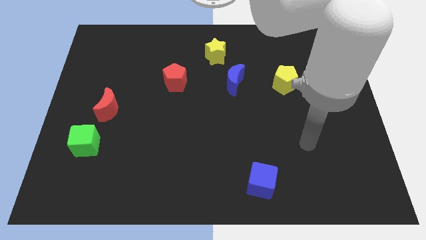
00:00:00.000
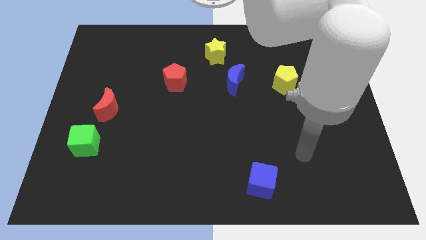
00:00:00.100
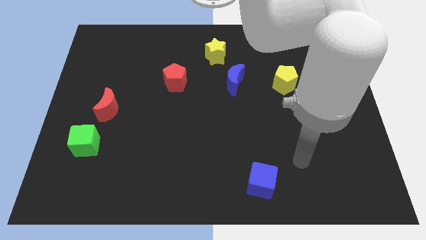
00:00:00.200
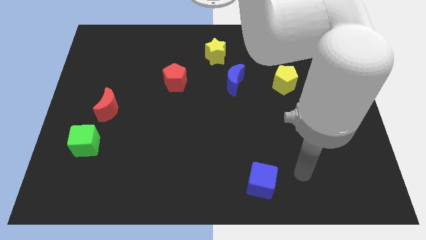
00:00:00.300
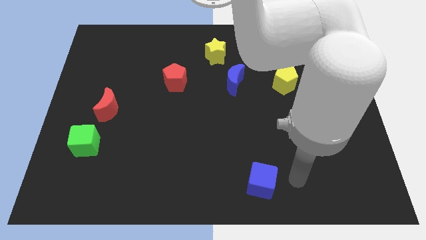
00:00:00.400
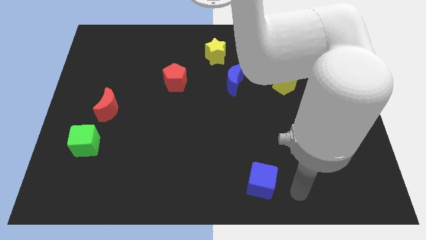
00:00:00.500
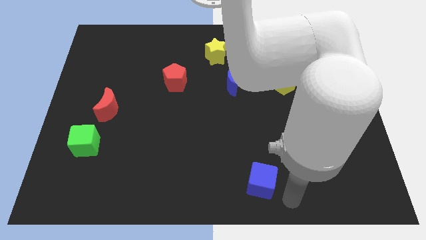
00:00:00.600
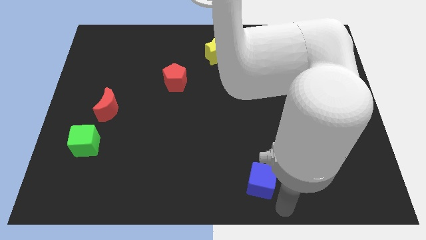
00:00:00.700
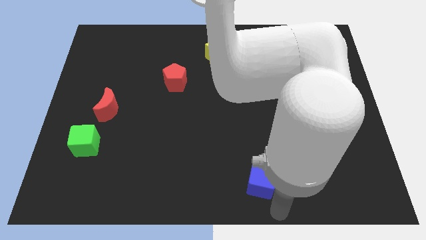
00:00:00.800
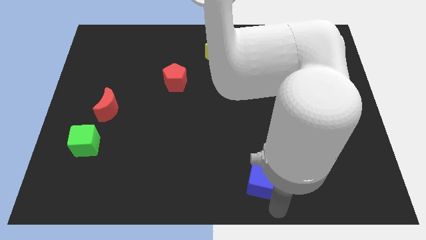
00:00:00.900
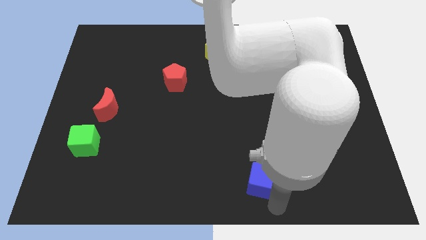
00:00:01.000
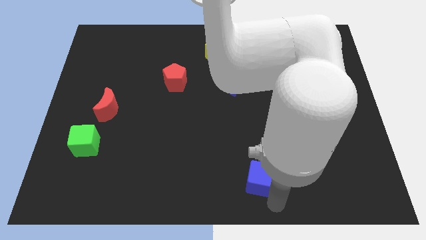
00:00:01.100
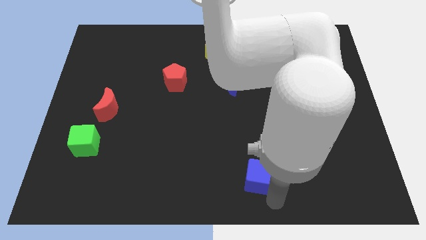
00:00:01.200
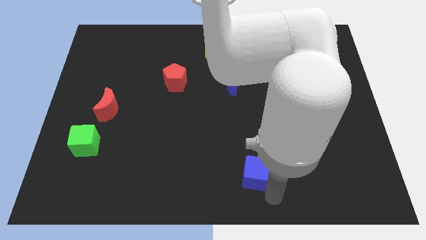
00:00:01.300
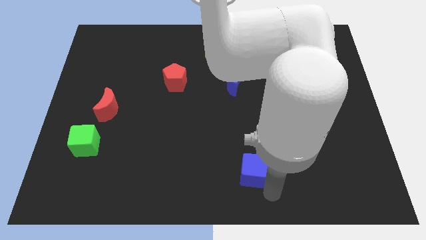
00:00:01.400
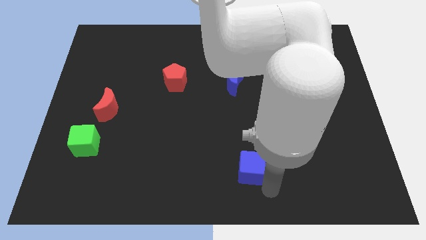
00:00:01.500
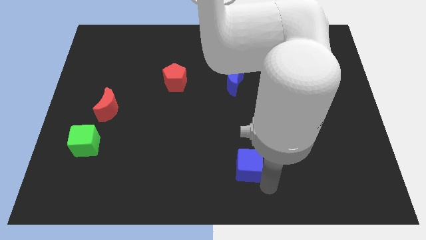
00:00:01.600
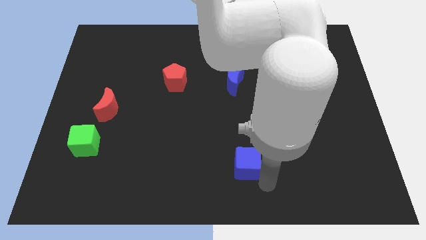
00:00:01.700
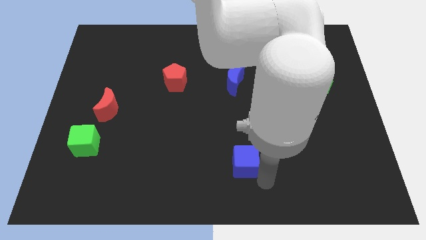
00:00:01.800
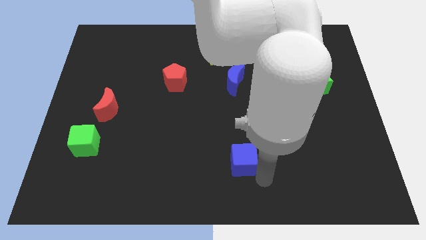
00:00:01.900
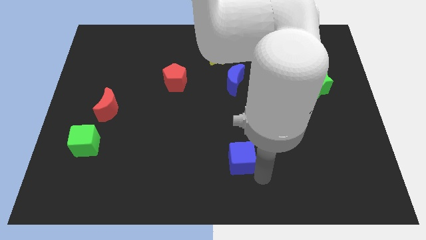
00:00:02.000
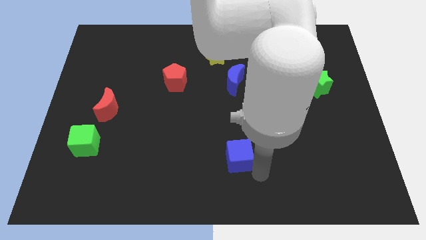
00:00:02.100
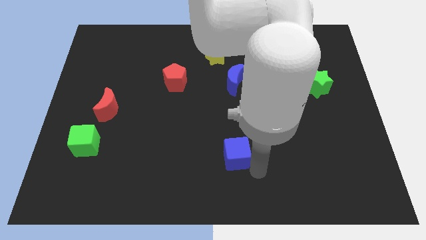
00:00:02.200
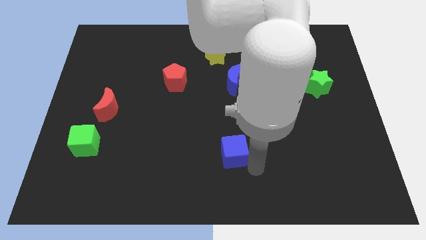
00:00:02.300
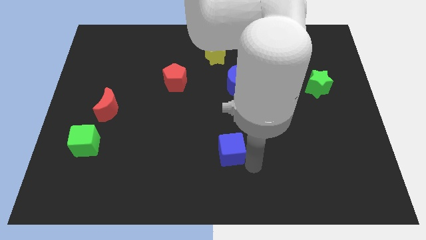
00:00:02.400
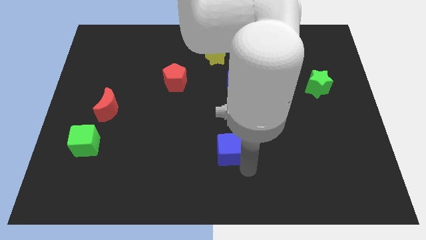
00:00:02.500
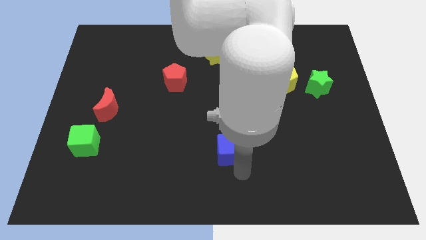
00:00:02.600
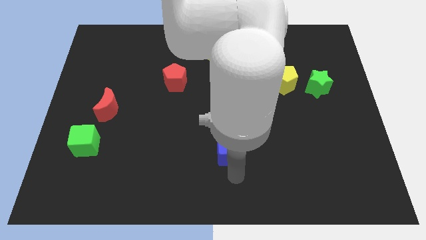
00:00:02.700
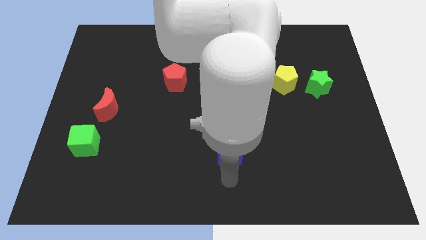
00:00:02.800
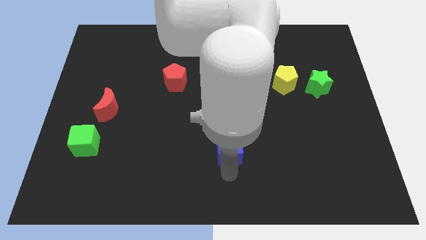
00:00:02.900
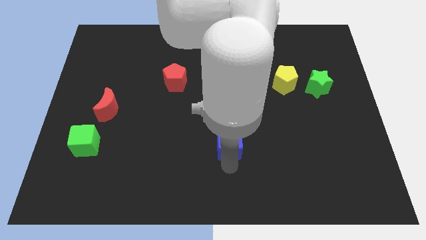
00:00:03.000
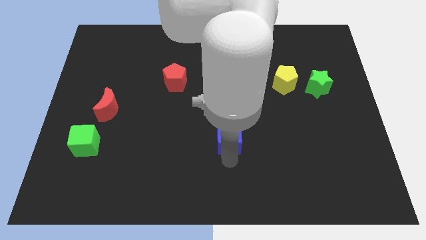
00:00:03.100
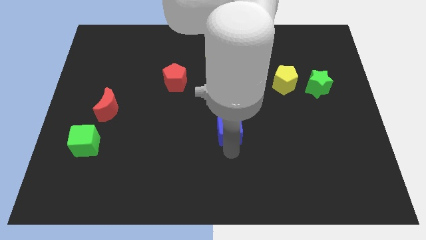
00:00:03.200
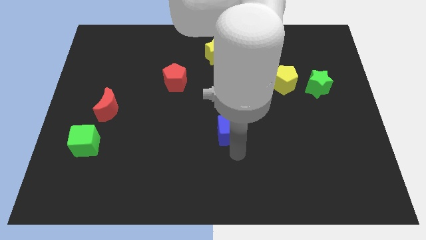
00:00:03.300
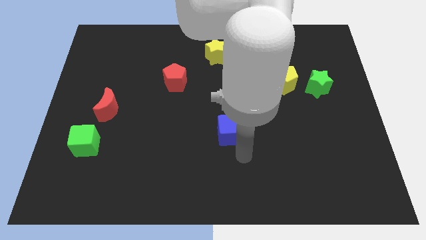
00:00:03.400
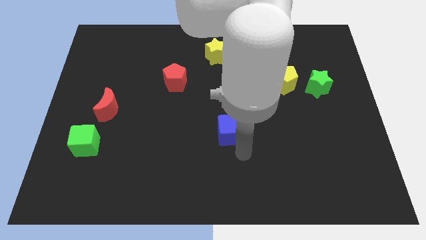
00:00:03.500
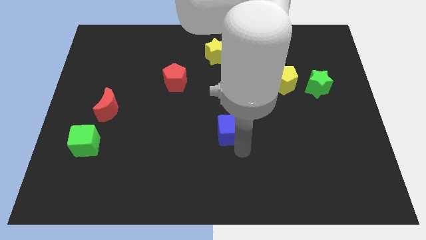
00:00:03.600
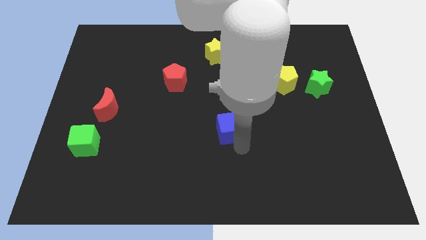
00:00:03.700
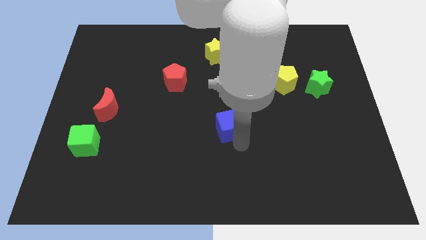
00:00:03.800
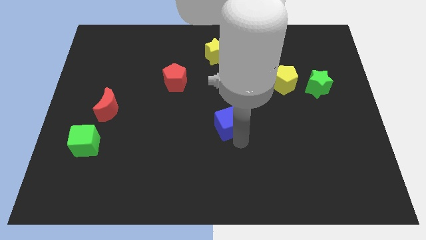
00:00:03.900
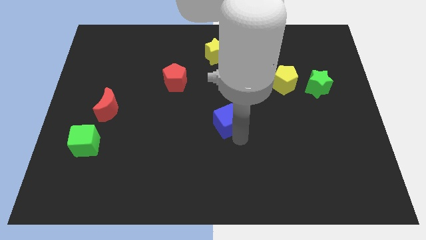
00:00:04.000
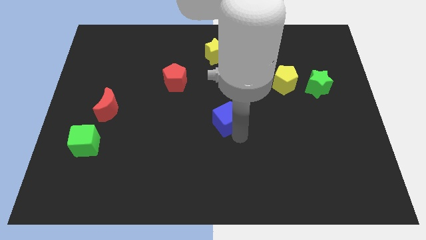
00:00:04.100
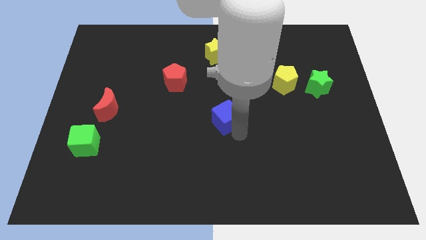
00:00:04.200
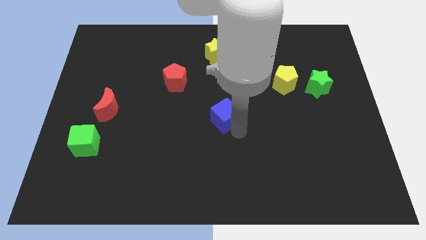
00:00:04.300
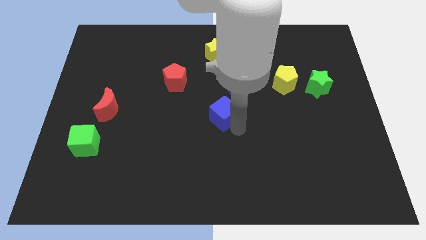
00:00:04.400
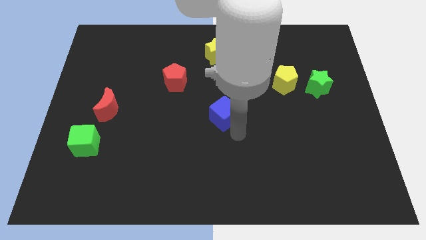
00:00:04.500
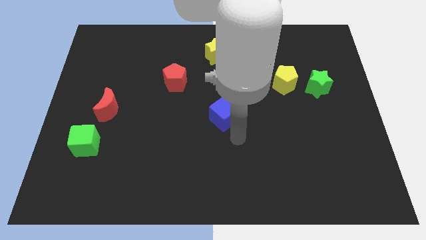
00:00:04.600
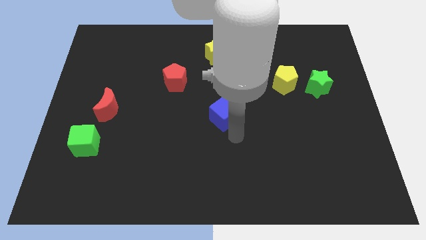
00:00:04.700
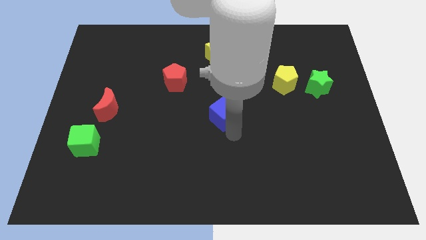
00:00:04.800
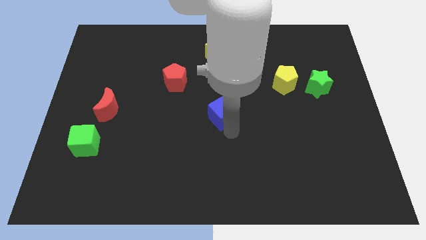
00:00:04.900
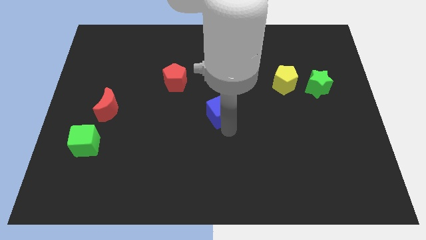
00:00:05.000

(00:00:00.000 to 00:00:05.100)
slide the blue cube to the bottom left of the blue moon

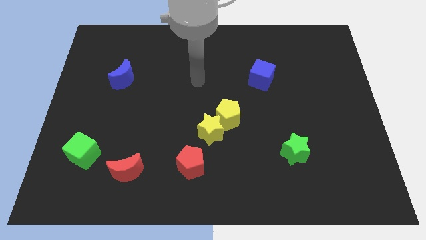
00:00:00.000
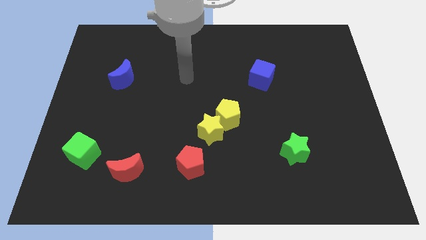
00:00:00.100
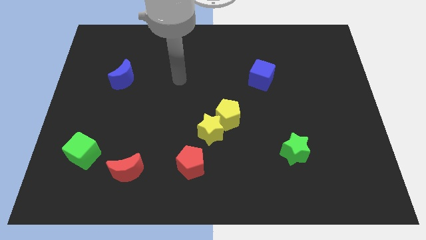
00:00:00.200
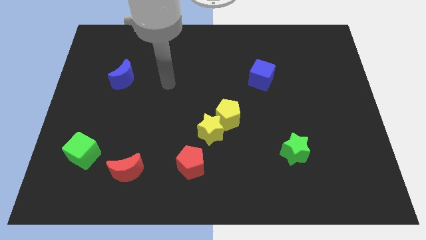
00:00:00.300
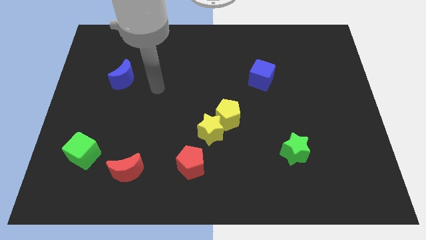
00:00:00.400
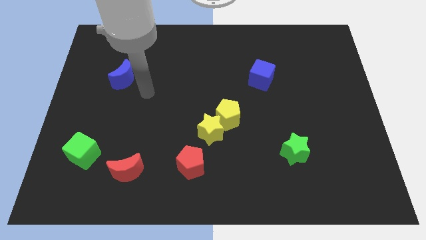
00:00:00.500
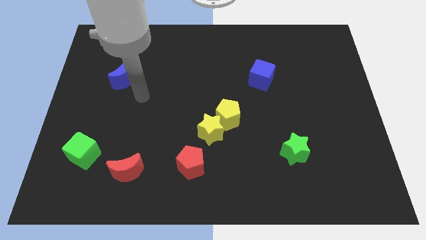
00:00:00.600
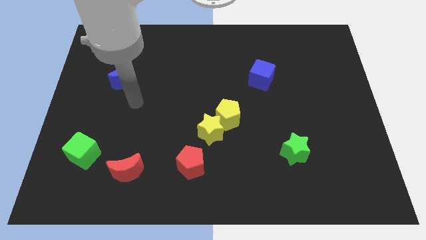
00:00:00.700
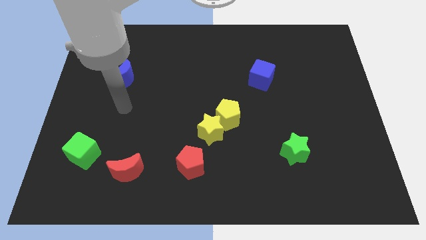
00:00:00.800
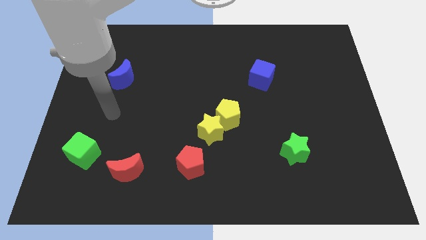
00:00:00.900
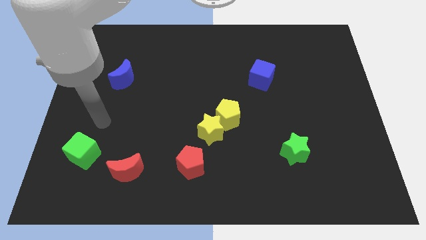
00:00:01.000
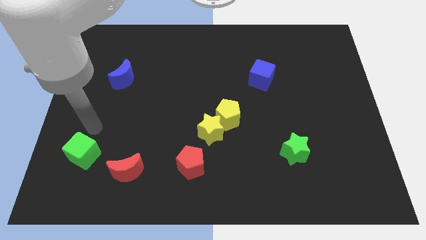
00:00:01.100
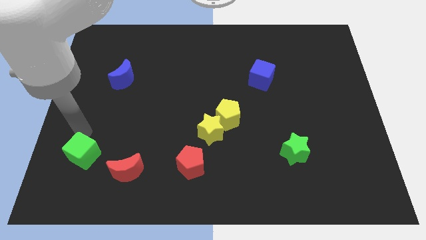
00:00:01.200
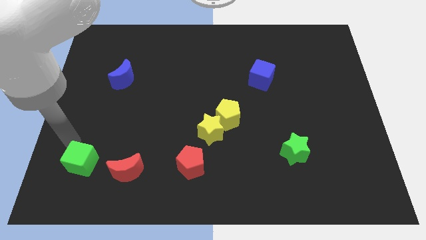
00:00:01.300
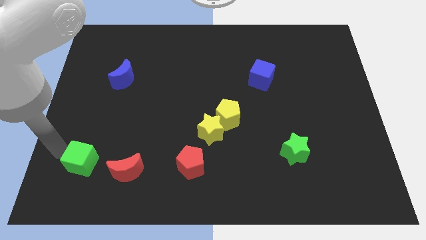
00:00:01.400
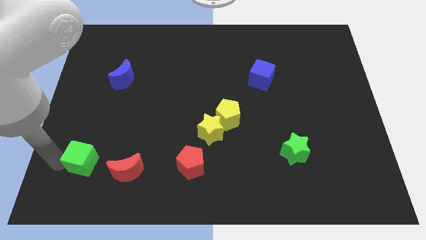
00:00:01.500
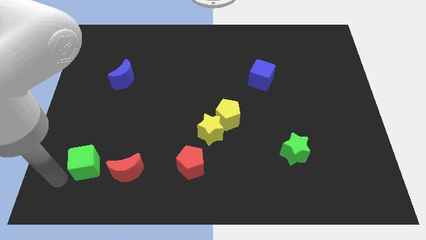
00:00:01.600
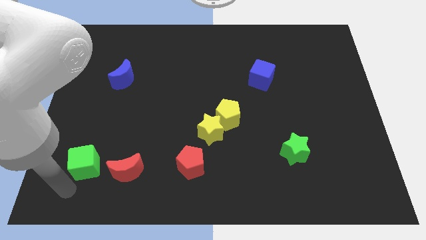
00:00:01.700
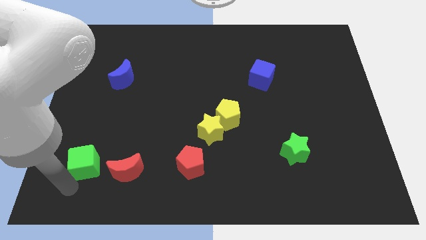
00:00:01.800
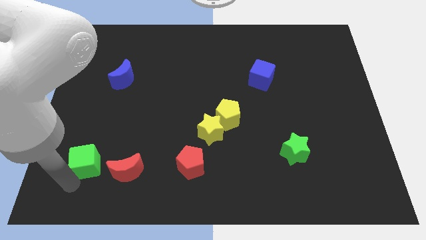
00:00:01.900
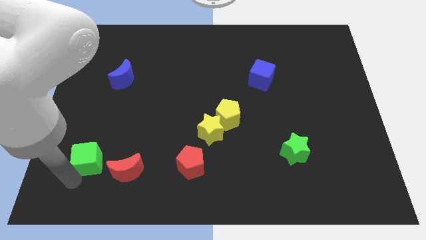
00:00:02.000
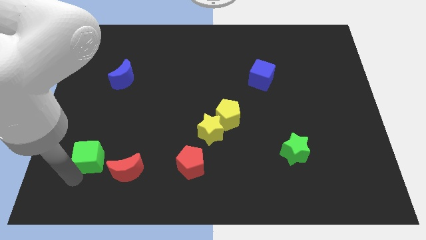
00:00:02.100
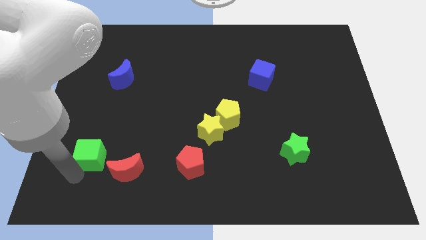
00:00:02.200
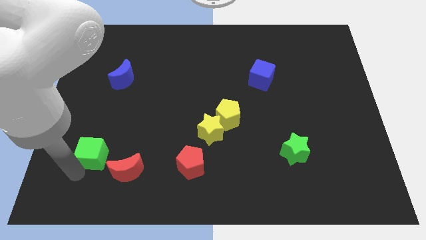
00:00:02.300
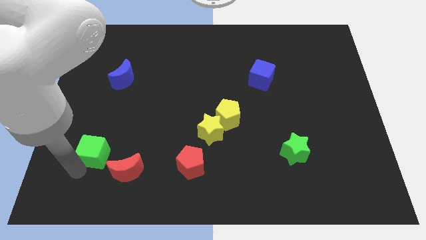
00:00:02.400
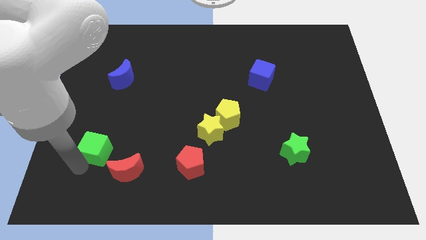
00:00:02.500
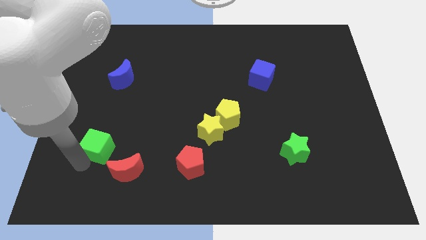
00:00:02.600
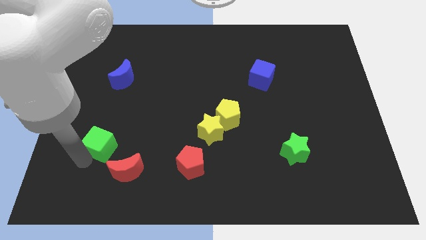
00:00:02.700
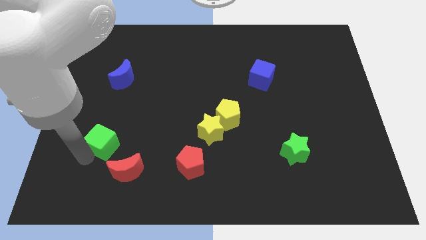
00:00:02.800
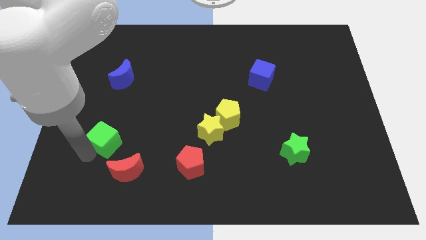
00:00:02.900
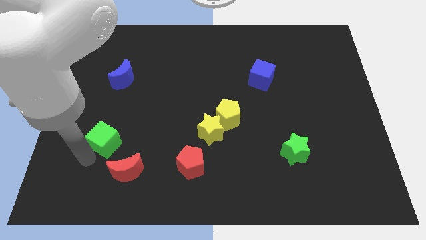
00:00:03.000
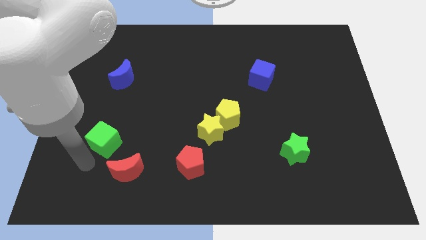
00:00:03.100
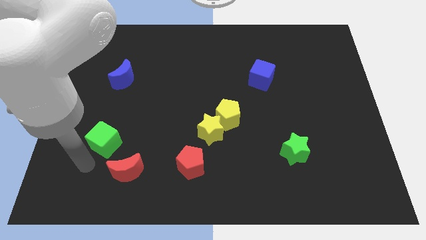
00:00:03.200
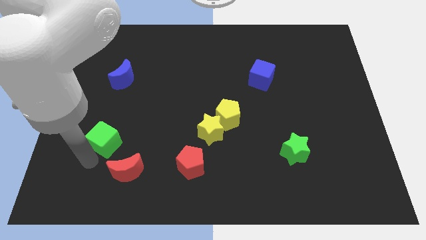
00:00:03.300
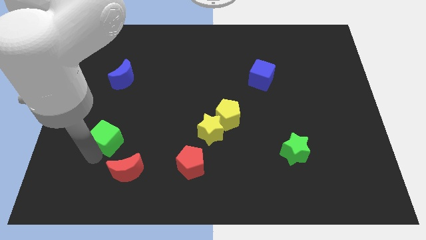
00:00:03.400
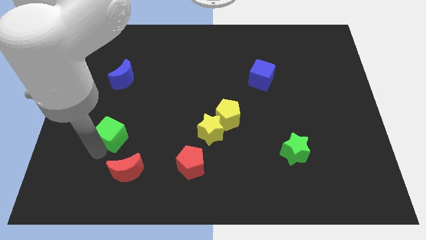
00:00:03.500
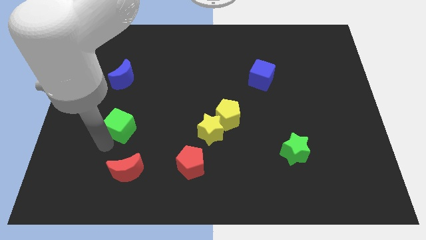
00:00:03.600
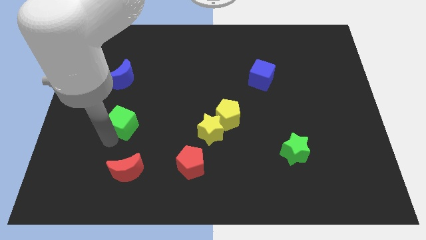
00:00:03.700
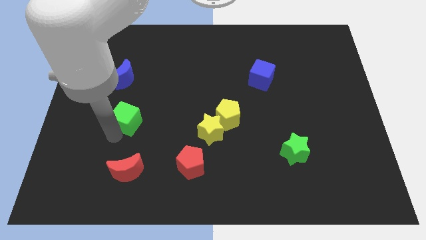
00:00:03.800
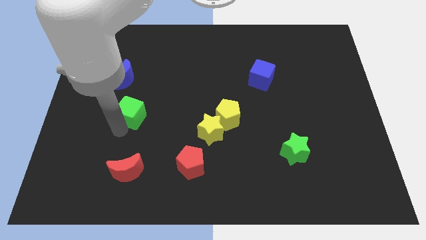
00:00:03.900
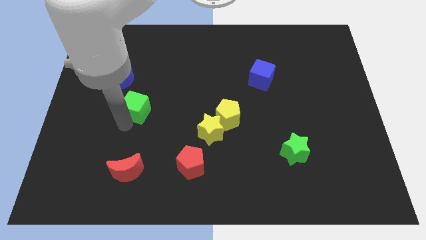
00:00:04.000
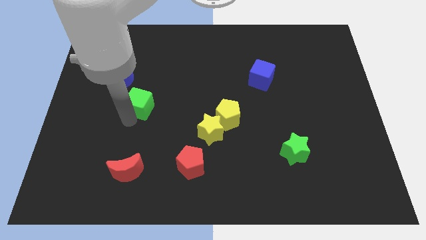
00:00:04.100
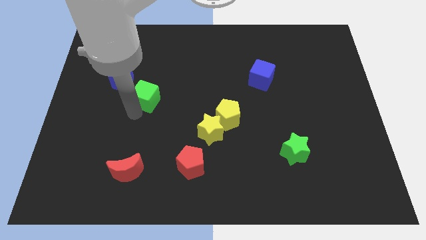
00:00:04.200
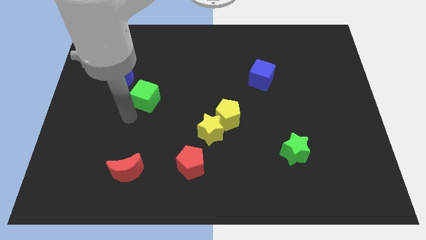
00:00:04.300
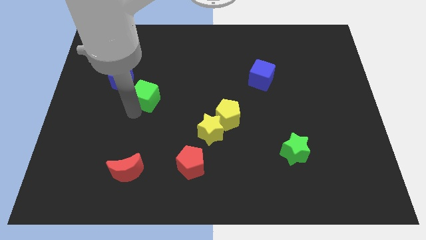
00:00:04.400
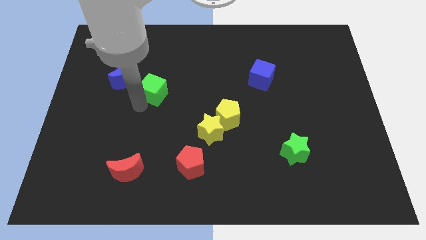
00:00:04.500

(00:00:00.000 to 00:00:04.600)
move the green cube right of the blue moon
